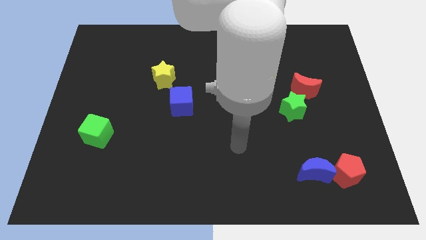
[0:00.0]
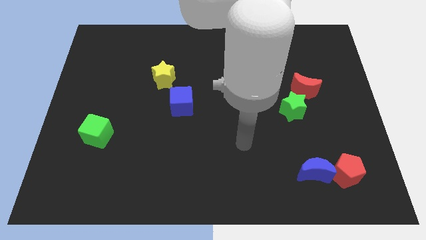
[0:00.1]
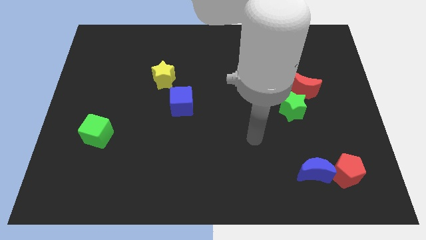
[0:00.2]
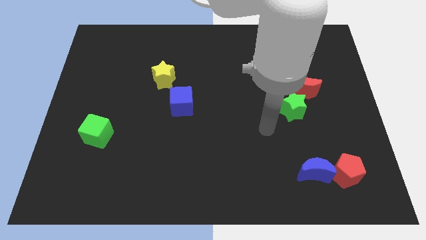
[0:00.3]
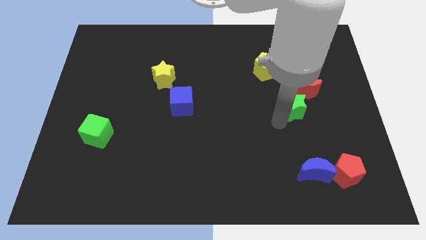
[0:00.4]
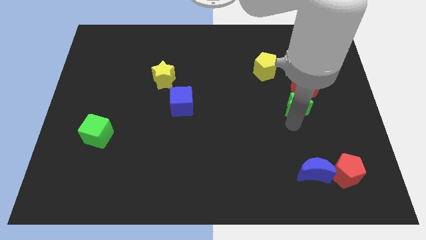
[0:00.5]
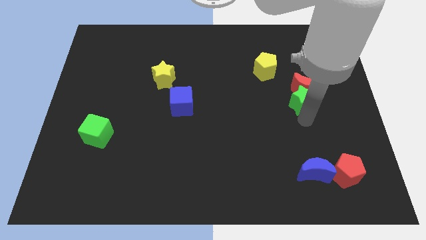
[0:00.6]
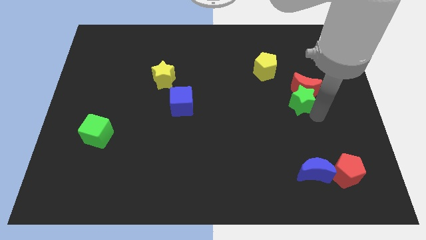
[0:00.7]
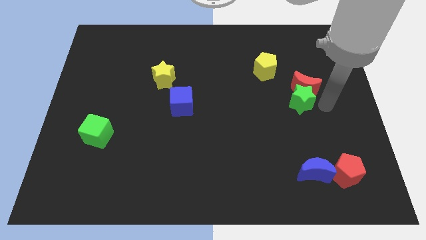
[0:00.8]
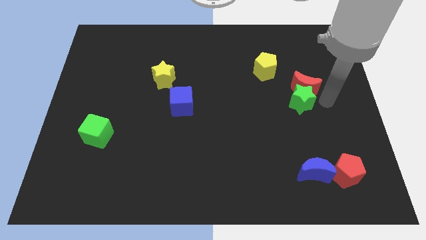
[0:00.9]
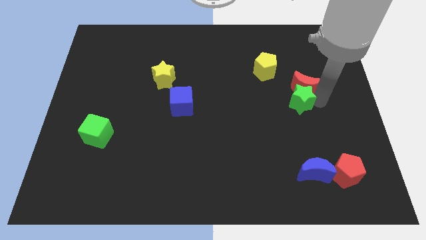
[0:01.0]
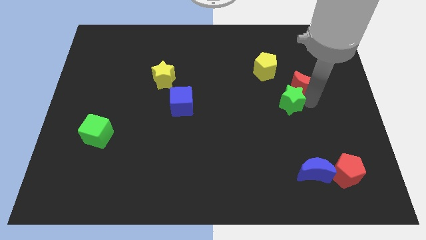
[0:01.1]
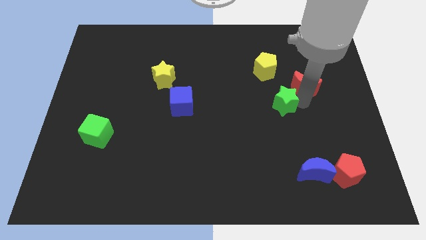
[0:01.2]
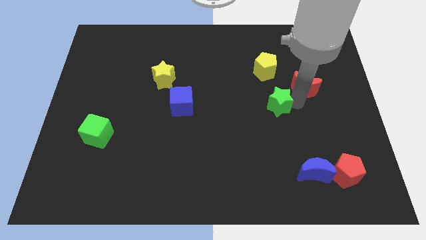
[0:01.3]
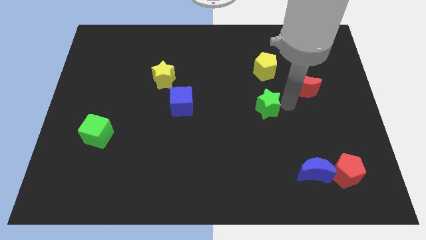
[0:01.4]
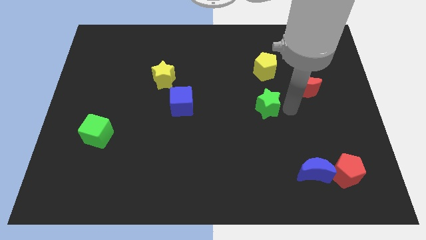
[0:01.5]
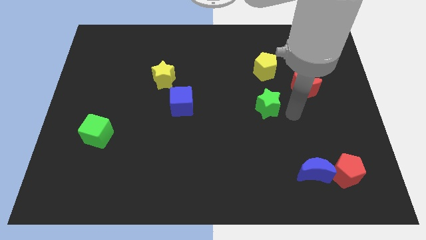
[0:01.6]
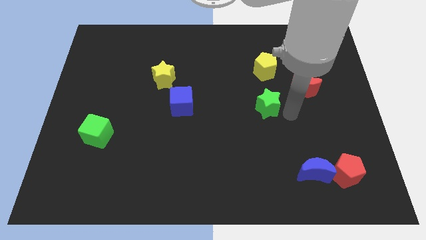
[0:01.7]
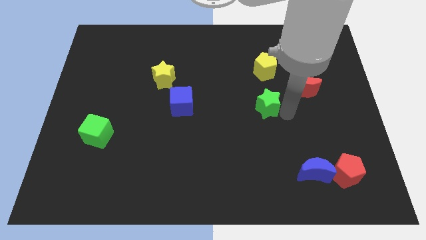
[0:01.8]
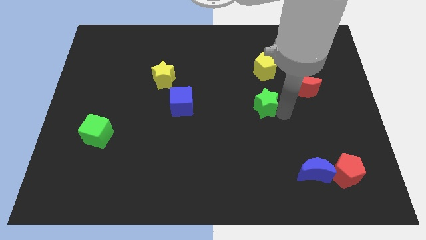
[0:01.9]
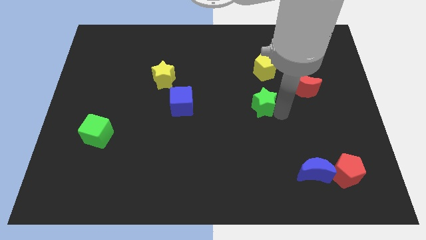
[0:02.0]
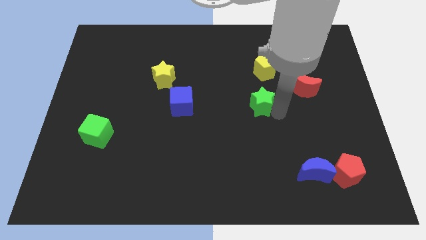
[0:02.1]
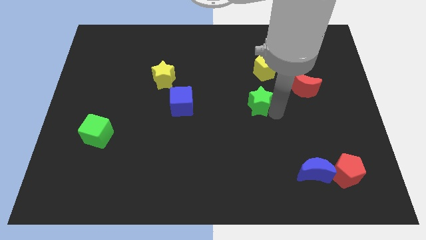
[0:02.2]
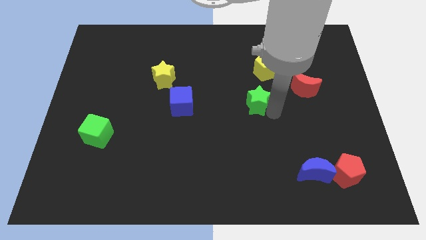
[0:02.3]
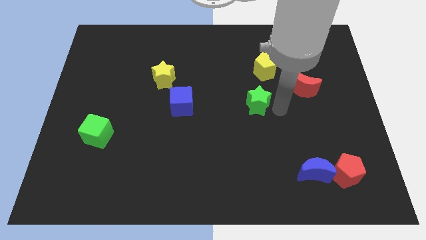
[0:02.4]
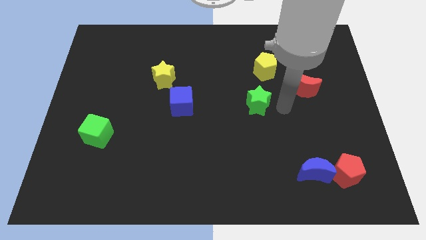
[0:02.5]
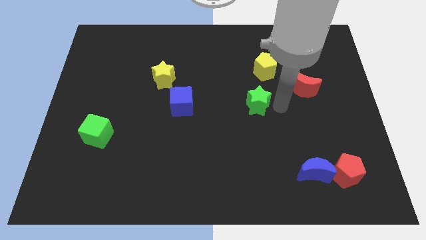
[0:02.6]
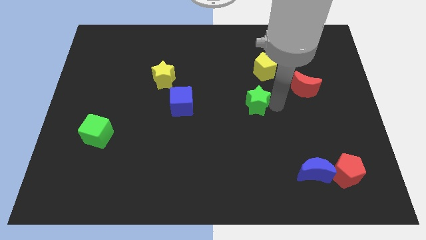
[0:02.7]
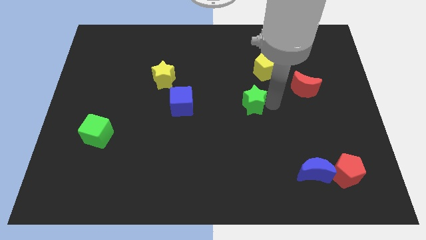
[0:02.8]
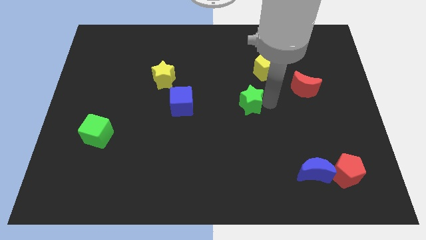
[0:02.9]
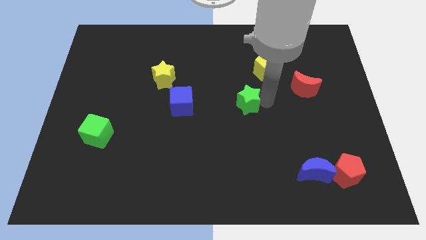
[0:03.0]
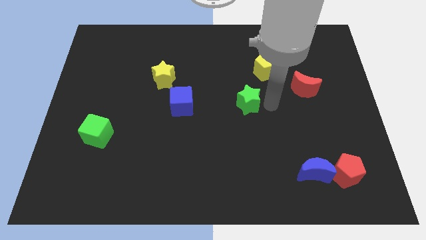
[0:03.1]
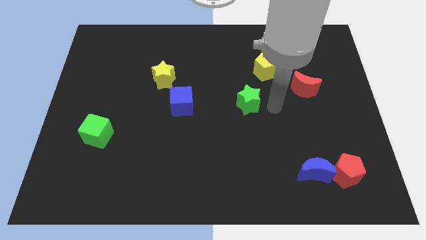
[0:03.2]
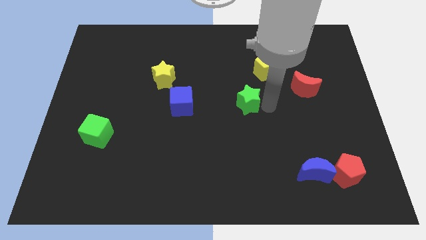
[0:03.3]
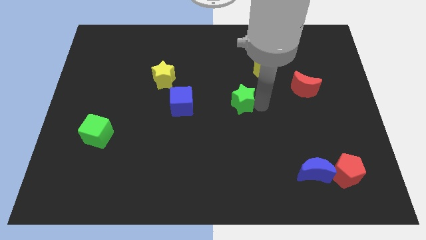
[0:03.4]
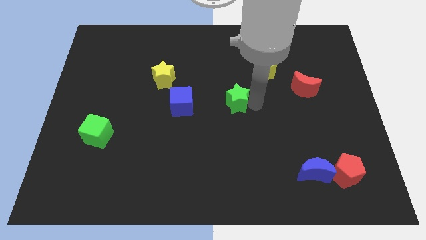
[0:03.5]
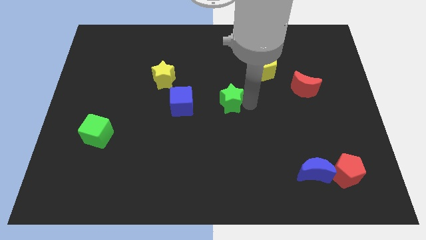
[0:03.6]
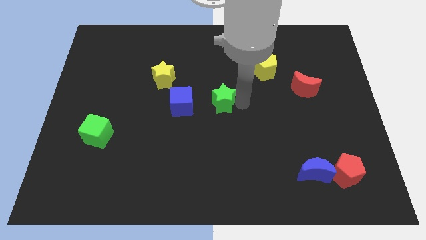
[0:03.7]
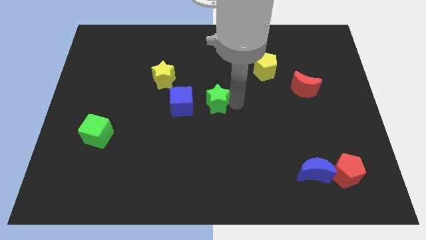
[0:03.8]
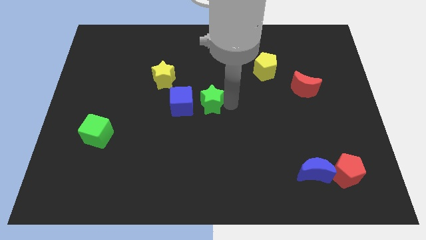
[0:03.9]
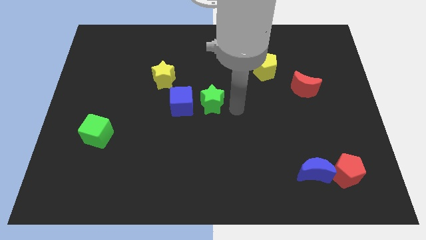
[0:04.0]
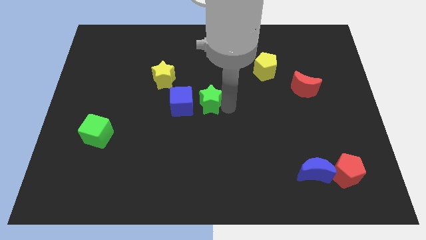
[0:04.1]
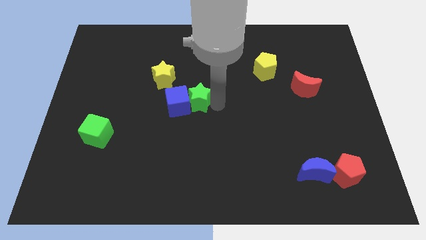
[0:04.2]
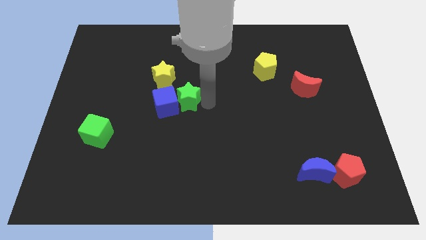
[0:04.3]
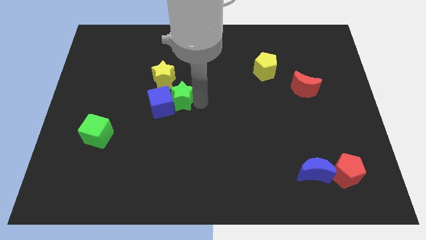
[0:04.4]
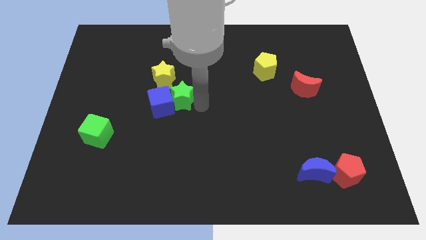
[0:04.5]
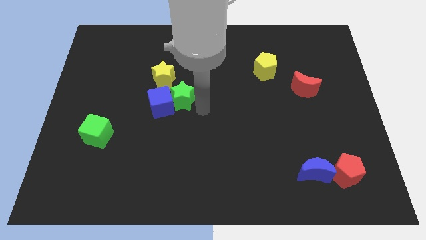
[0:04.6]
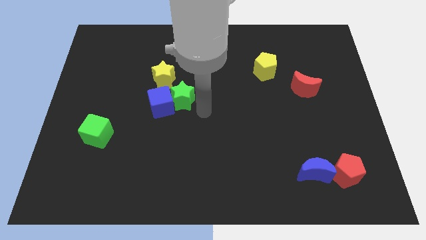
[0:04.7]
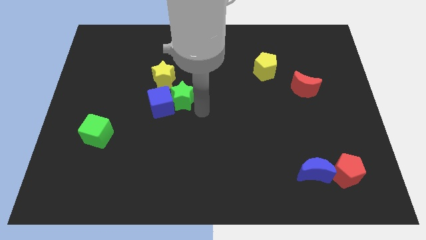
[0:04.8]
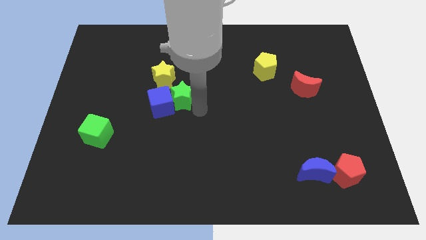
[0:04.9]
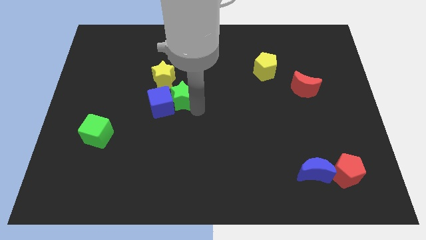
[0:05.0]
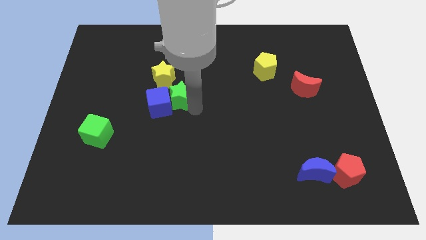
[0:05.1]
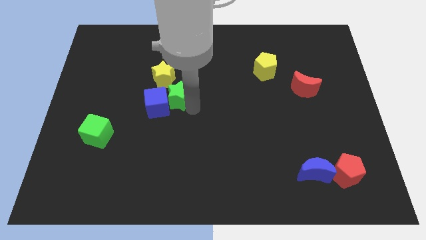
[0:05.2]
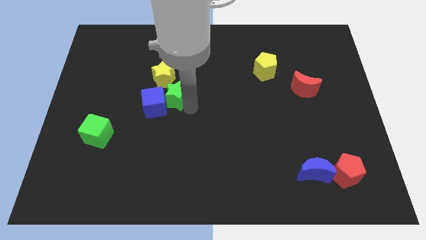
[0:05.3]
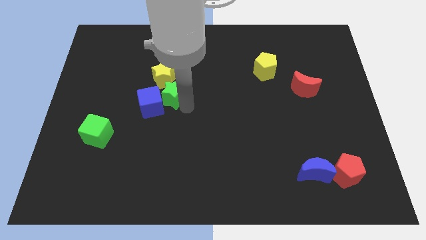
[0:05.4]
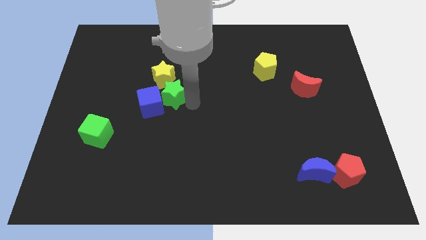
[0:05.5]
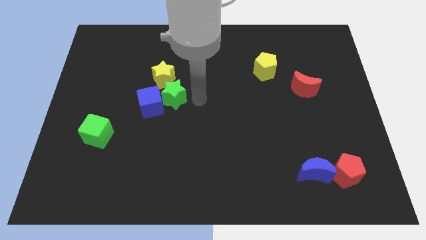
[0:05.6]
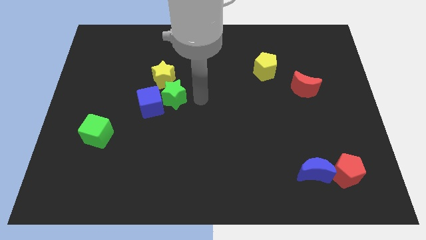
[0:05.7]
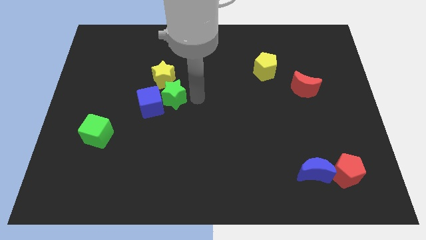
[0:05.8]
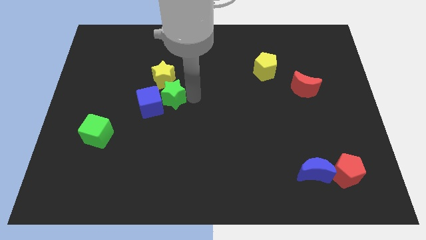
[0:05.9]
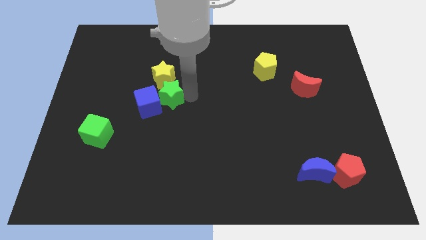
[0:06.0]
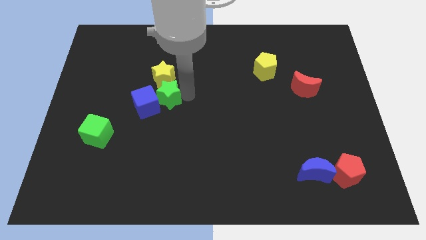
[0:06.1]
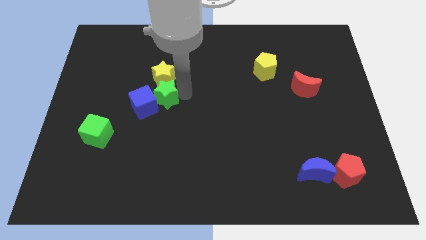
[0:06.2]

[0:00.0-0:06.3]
push the green star to the bottom left side of the yellow star

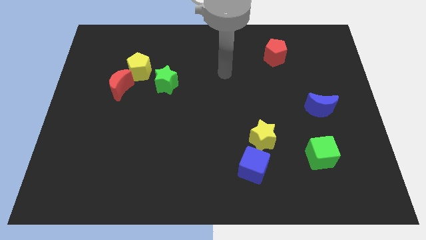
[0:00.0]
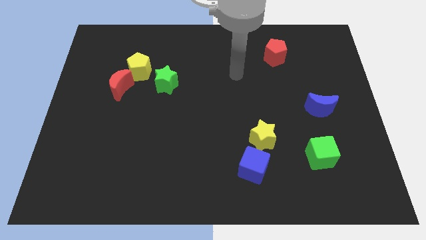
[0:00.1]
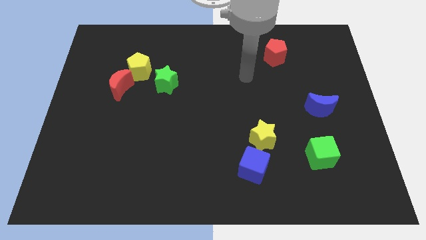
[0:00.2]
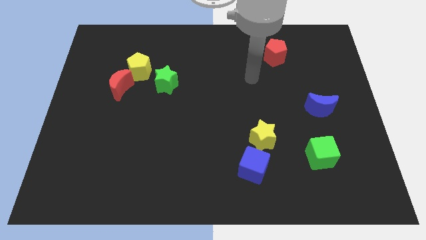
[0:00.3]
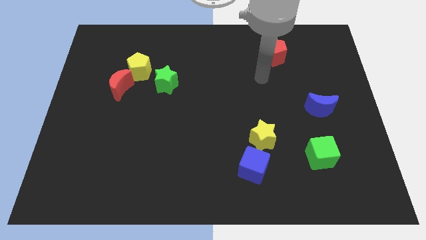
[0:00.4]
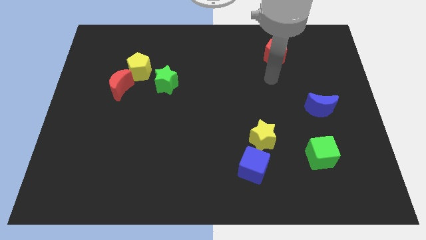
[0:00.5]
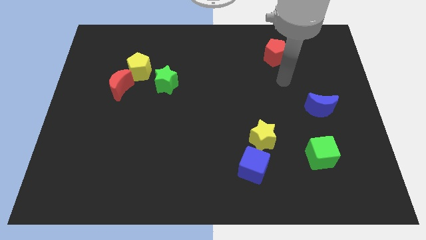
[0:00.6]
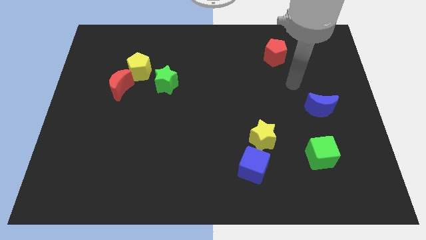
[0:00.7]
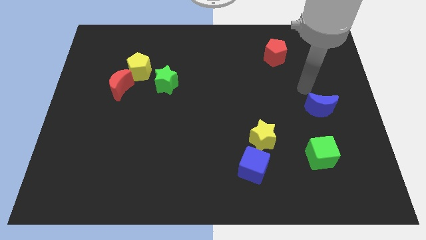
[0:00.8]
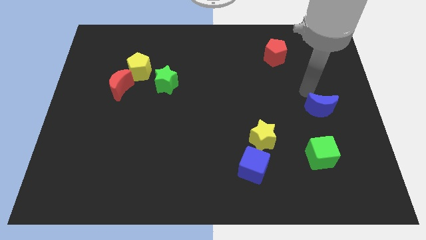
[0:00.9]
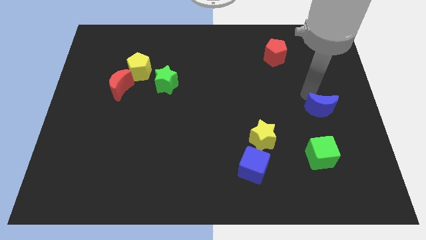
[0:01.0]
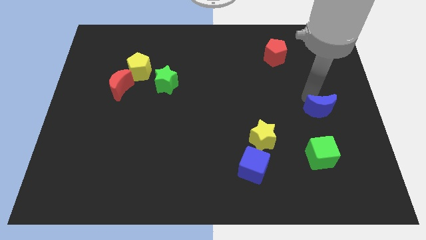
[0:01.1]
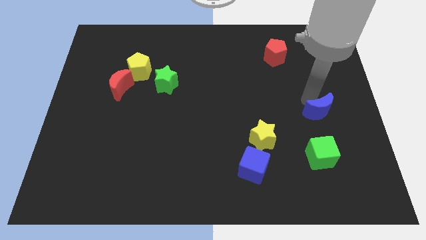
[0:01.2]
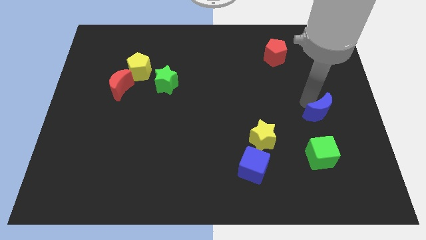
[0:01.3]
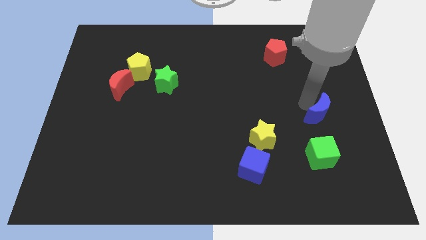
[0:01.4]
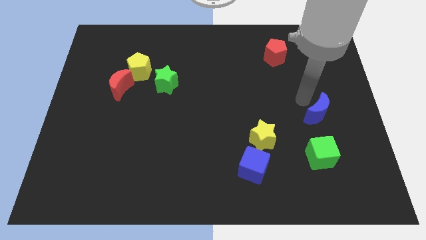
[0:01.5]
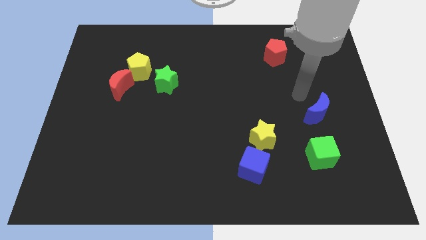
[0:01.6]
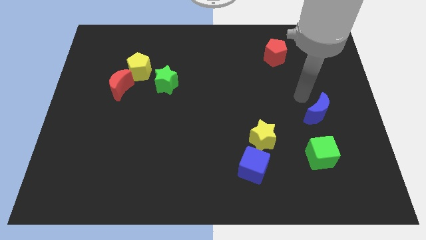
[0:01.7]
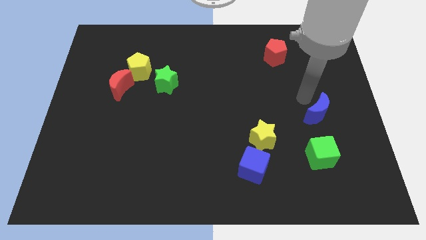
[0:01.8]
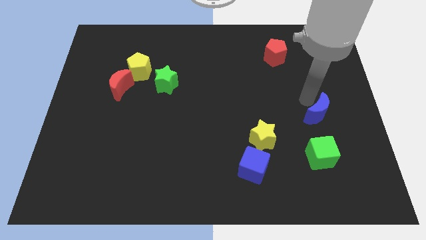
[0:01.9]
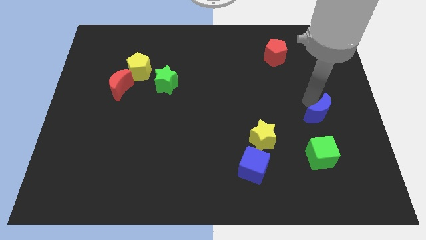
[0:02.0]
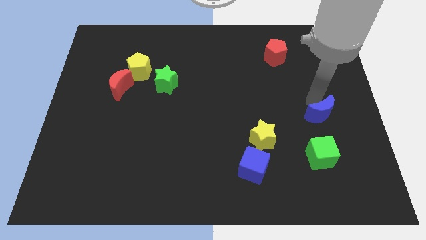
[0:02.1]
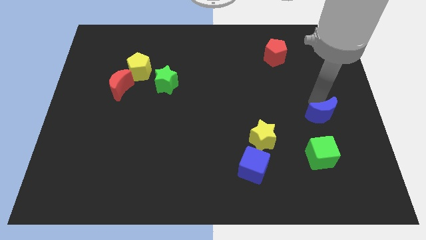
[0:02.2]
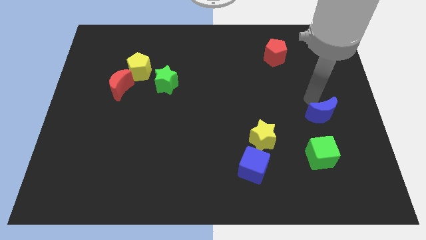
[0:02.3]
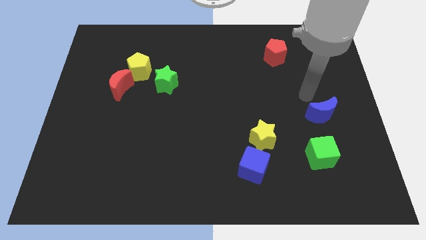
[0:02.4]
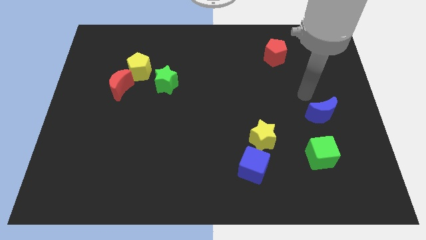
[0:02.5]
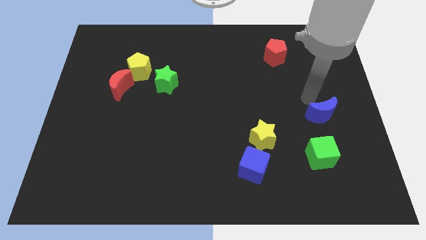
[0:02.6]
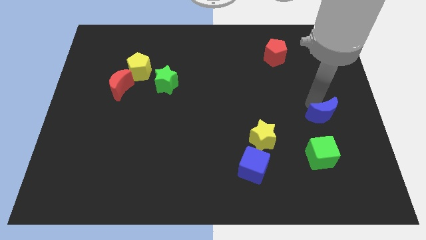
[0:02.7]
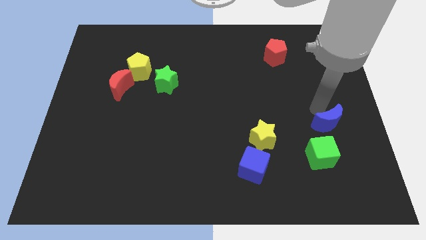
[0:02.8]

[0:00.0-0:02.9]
put the blue moon to the top right side of the green cube
